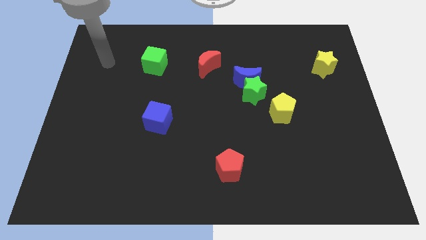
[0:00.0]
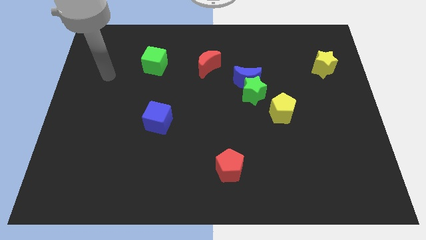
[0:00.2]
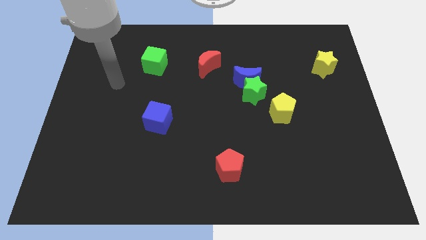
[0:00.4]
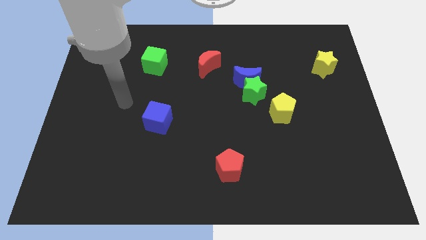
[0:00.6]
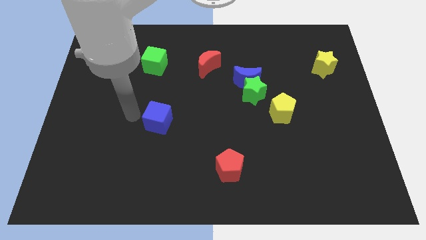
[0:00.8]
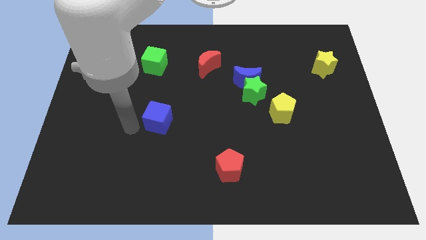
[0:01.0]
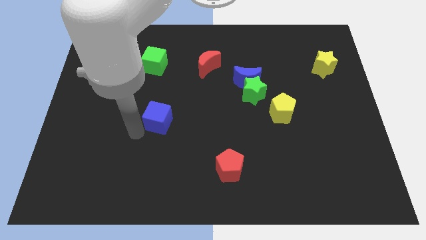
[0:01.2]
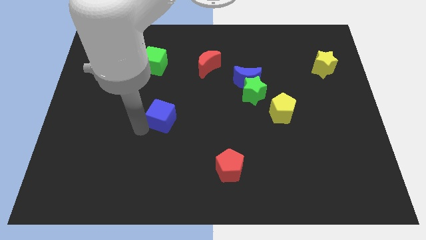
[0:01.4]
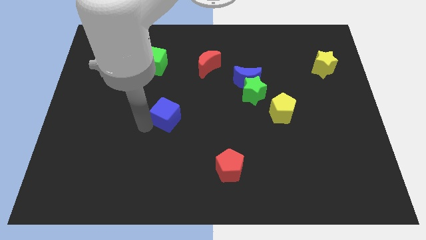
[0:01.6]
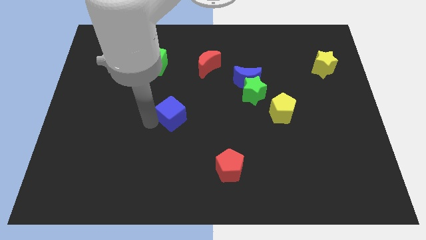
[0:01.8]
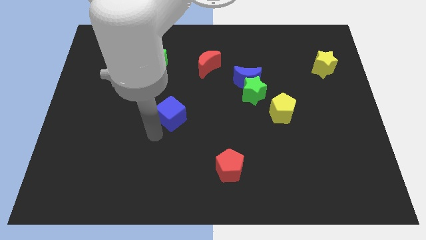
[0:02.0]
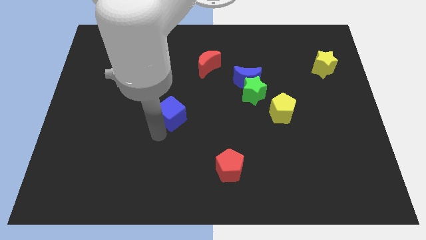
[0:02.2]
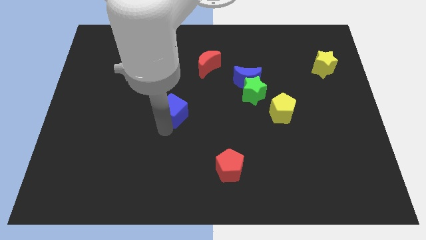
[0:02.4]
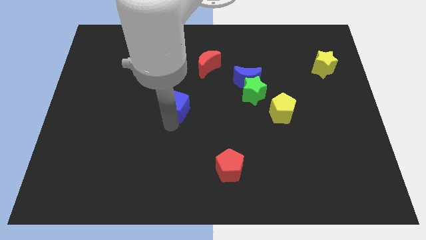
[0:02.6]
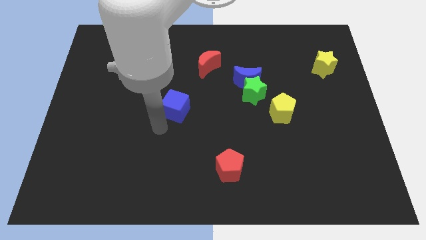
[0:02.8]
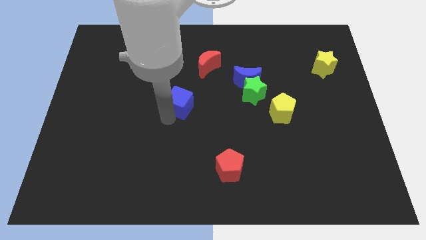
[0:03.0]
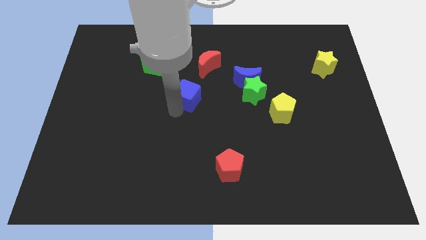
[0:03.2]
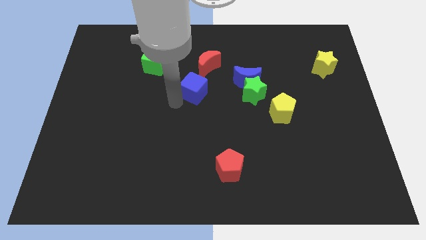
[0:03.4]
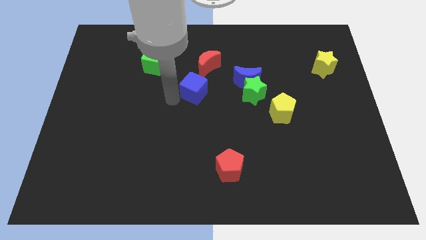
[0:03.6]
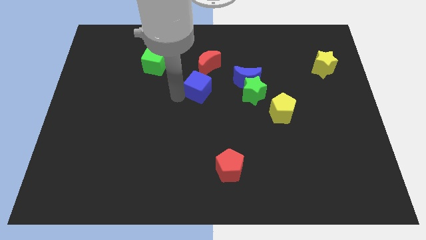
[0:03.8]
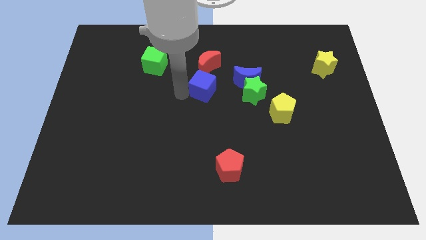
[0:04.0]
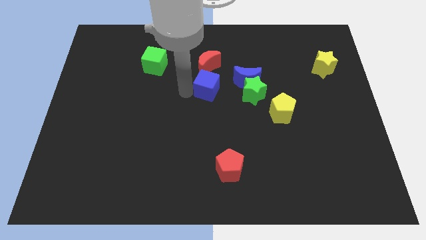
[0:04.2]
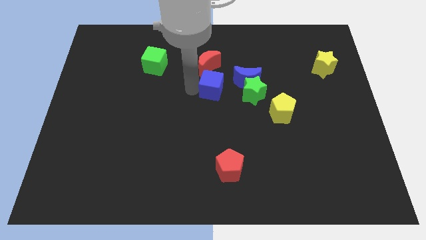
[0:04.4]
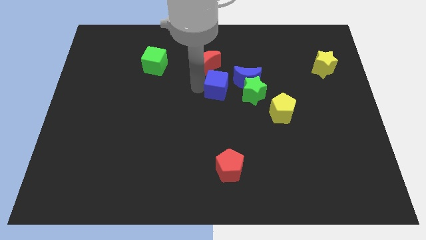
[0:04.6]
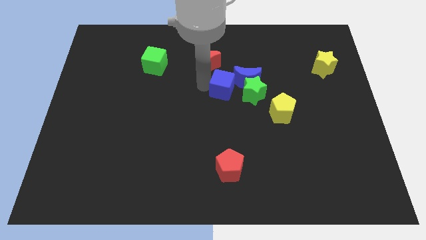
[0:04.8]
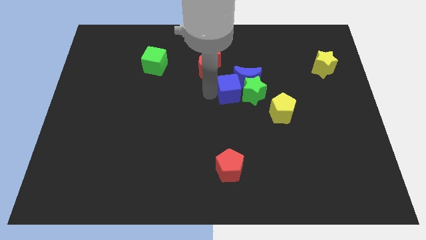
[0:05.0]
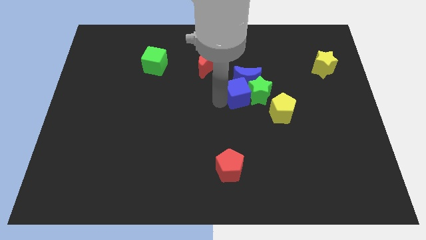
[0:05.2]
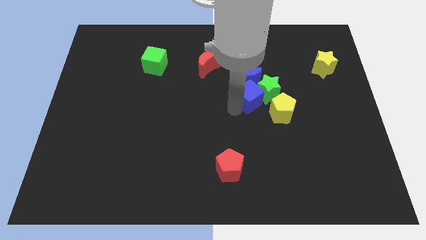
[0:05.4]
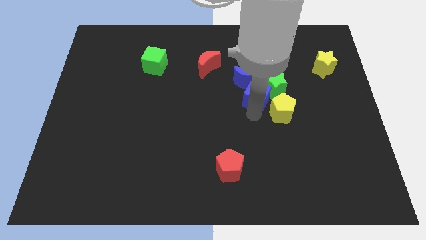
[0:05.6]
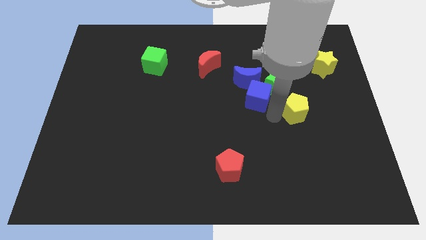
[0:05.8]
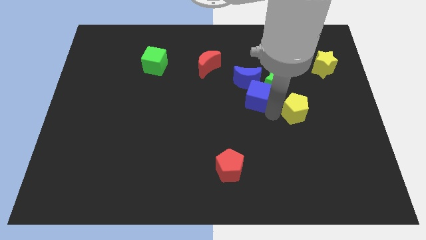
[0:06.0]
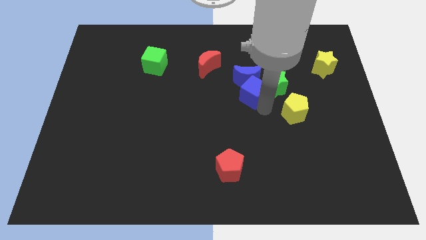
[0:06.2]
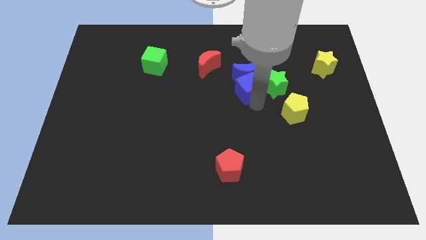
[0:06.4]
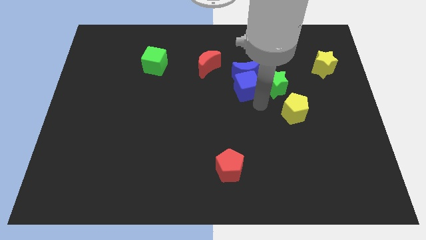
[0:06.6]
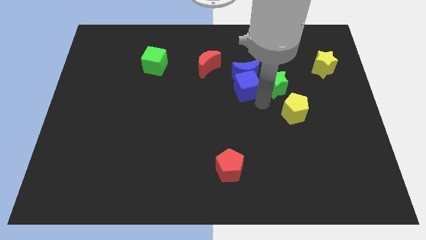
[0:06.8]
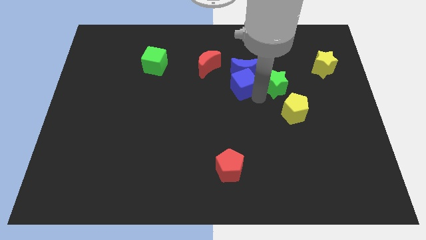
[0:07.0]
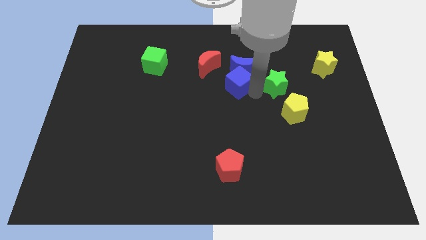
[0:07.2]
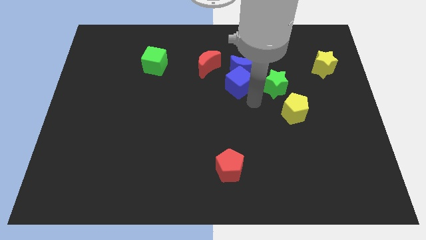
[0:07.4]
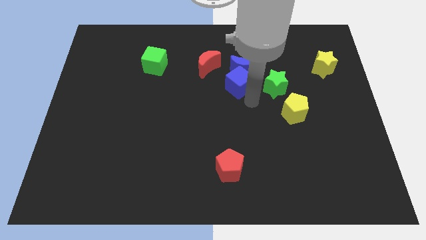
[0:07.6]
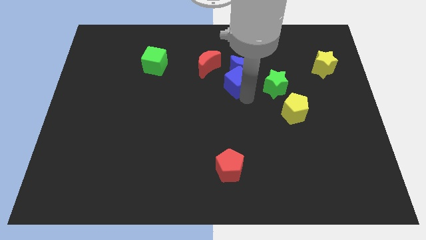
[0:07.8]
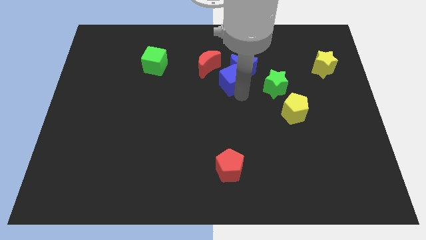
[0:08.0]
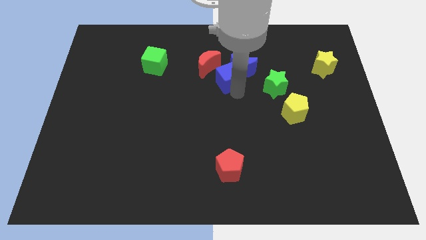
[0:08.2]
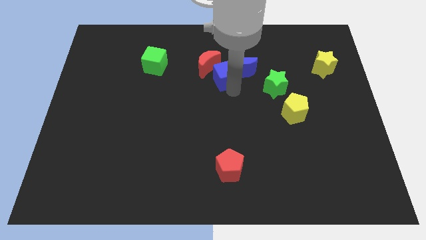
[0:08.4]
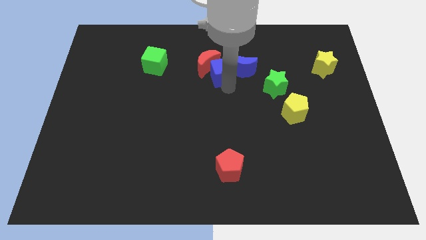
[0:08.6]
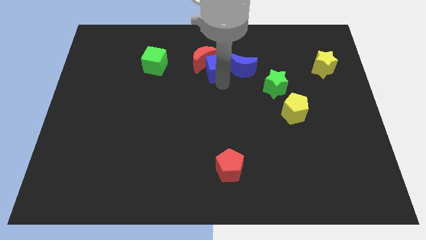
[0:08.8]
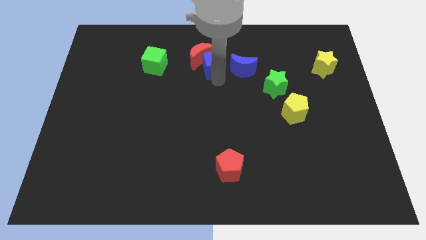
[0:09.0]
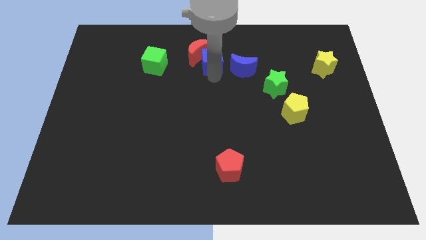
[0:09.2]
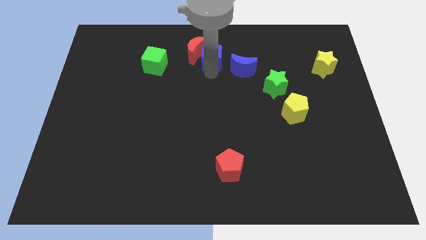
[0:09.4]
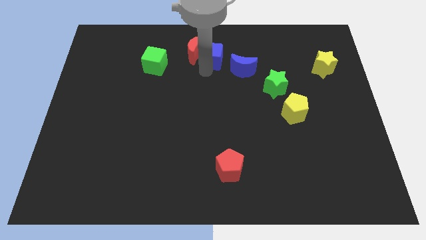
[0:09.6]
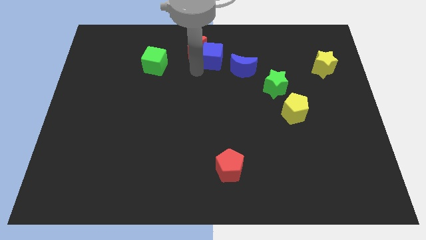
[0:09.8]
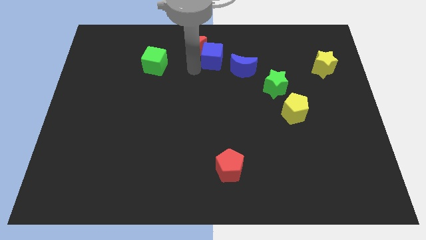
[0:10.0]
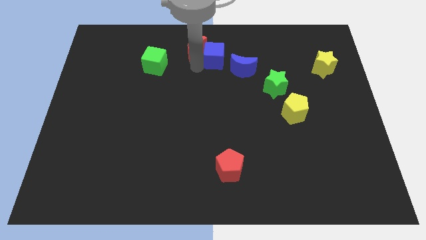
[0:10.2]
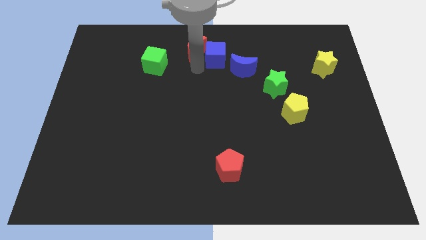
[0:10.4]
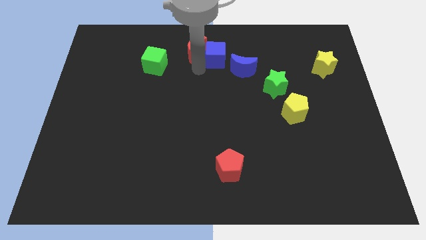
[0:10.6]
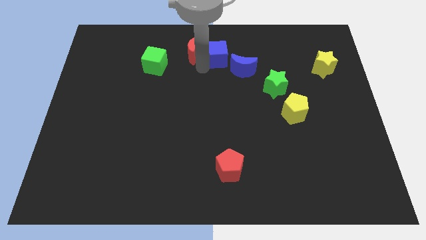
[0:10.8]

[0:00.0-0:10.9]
move the blue cube to the top
